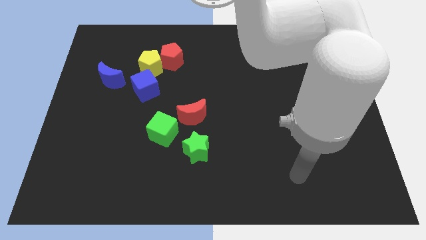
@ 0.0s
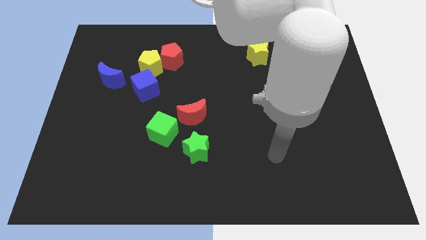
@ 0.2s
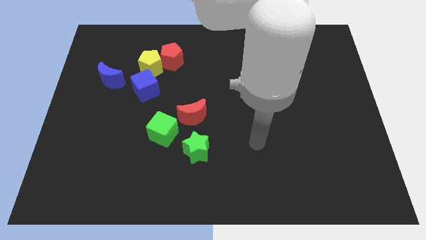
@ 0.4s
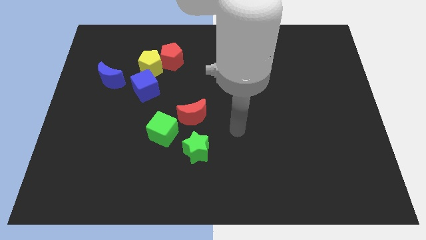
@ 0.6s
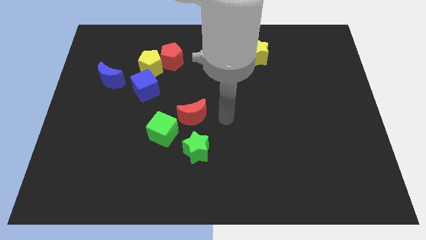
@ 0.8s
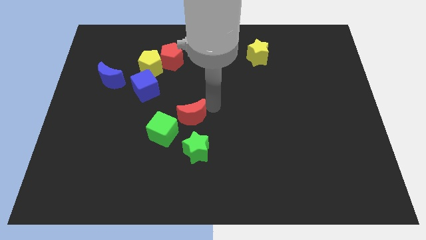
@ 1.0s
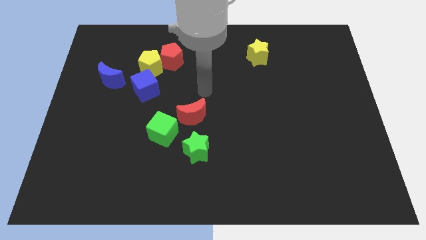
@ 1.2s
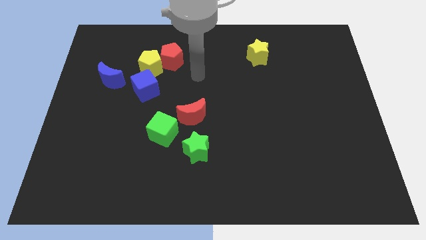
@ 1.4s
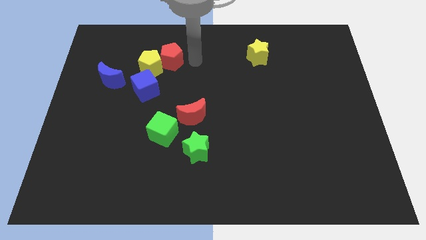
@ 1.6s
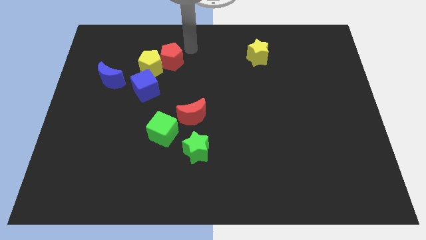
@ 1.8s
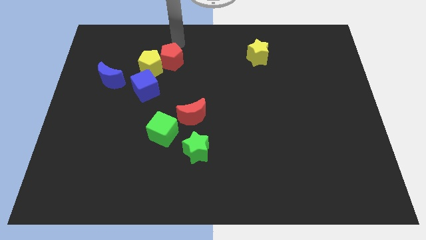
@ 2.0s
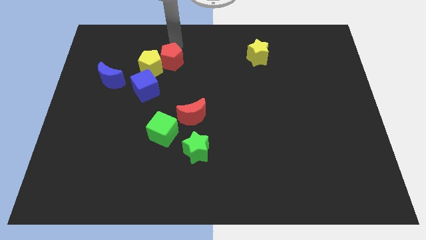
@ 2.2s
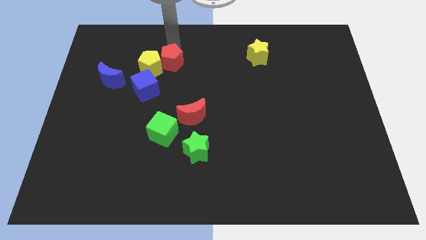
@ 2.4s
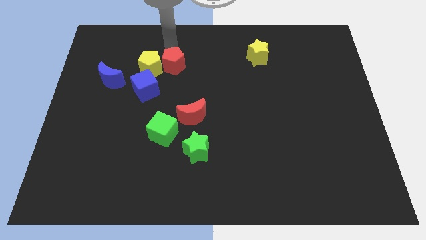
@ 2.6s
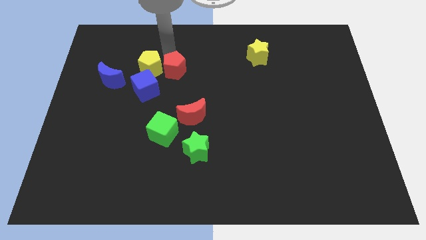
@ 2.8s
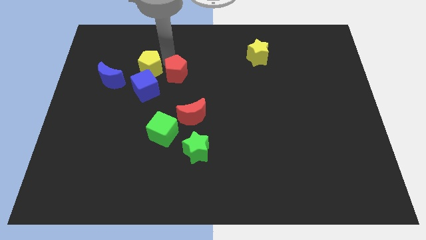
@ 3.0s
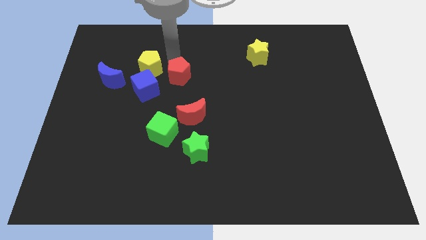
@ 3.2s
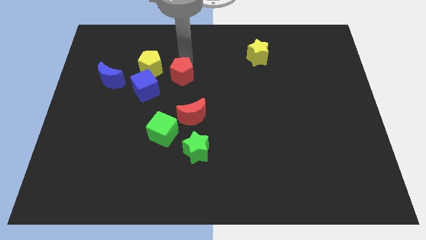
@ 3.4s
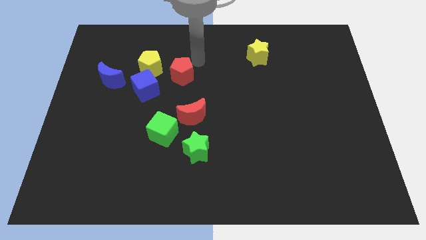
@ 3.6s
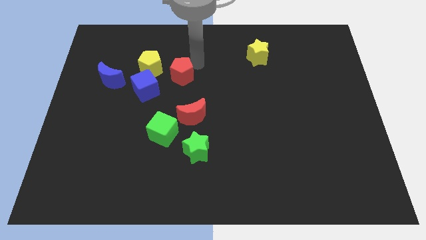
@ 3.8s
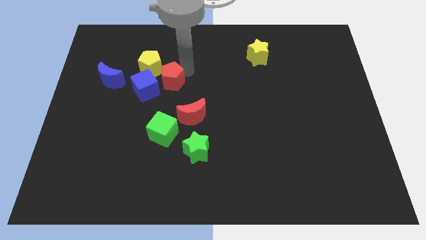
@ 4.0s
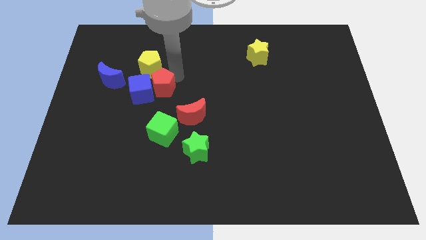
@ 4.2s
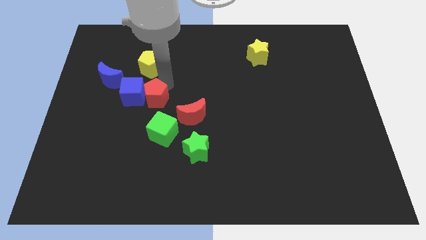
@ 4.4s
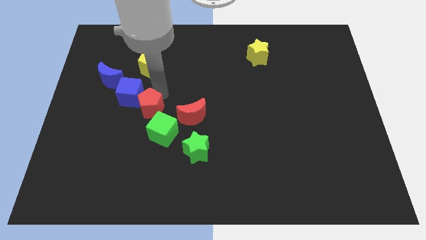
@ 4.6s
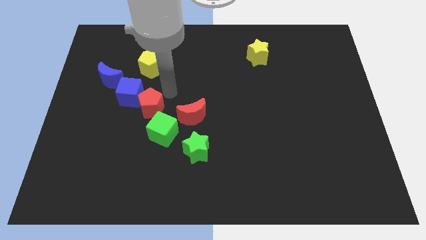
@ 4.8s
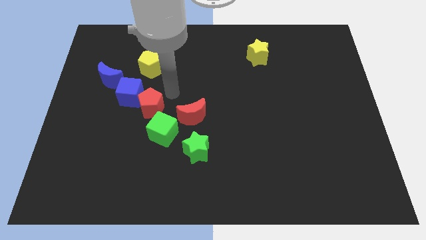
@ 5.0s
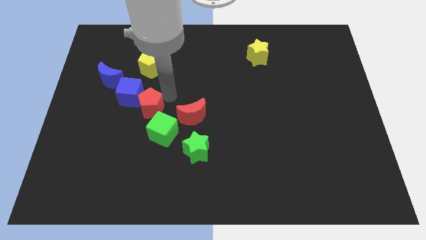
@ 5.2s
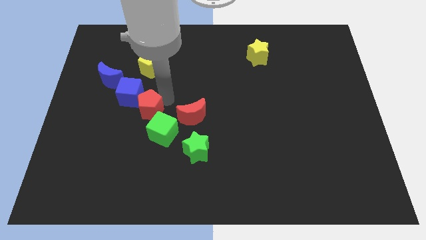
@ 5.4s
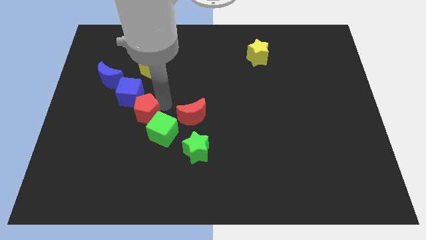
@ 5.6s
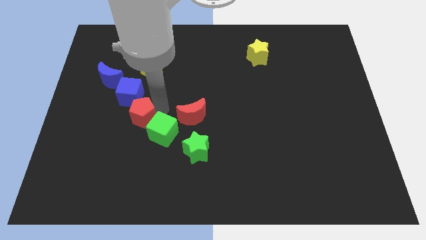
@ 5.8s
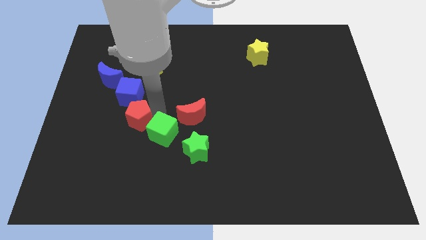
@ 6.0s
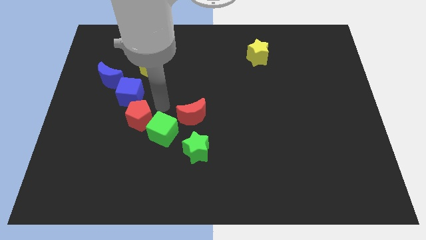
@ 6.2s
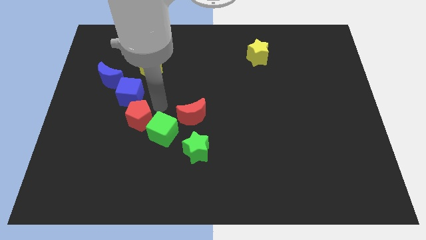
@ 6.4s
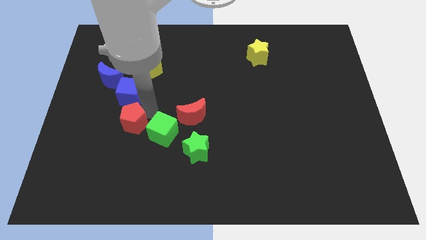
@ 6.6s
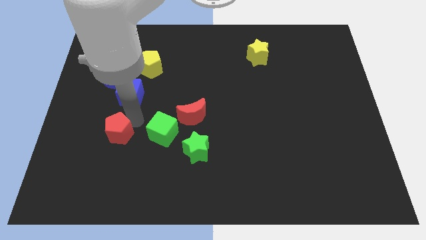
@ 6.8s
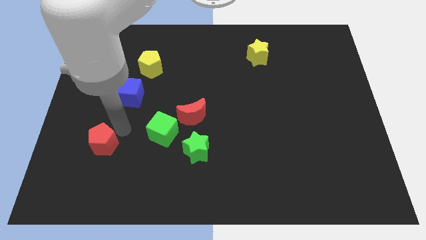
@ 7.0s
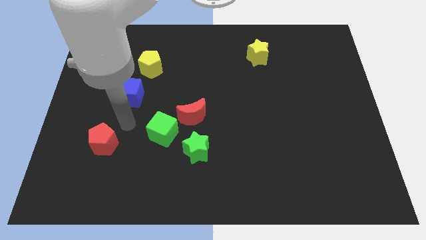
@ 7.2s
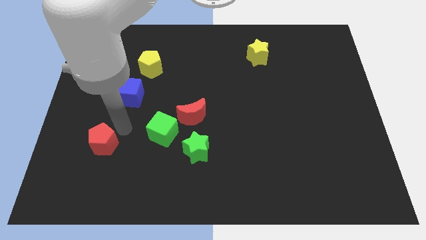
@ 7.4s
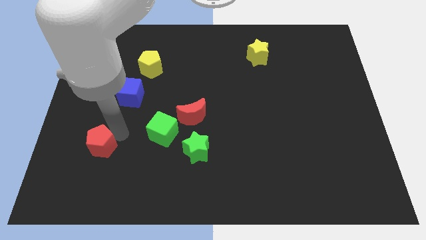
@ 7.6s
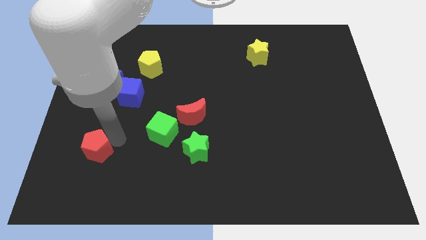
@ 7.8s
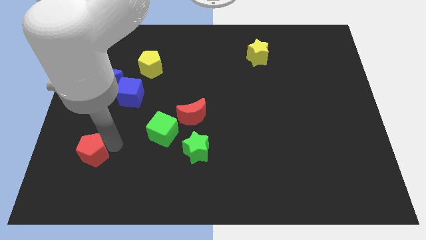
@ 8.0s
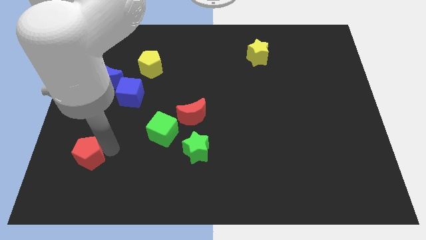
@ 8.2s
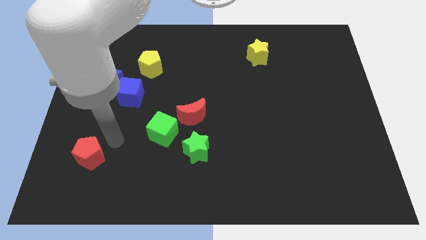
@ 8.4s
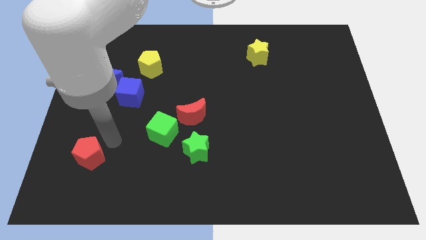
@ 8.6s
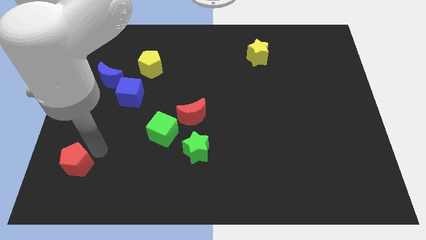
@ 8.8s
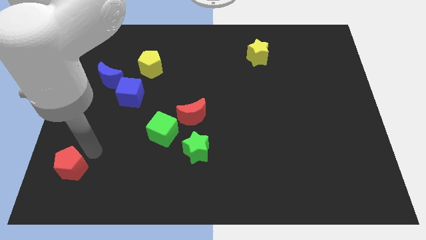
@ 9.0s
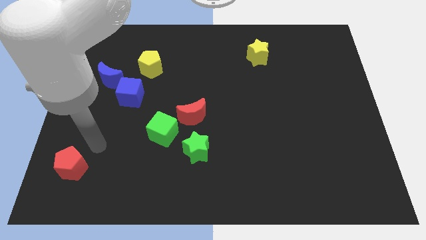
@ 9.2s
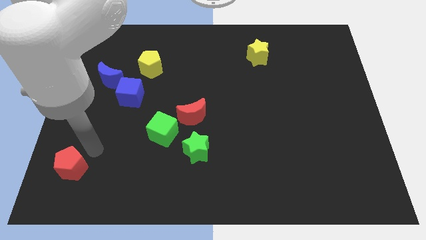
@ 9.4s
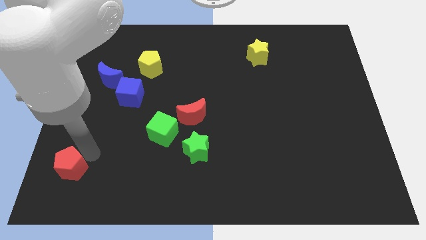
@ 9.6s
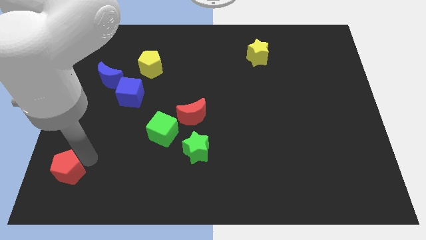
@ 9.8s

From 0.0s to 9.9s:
put the red pentagon to the bottom left corner
